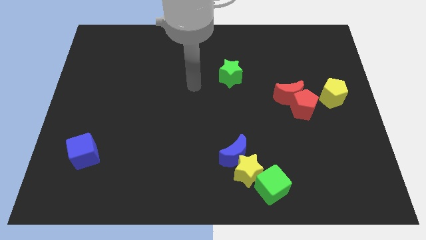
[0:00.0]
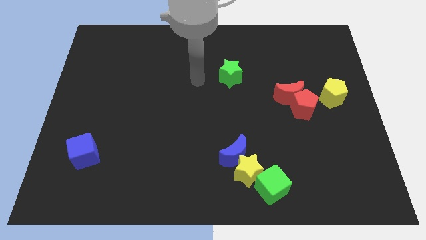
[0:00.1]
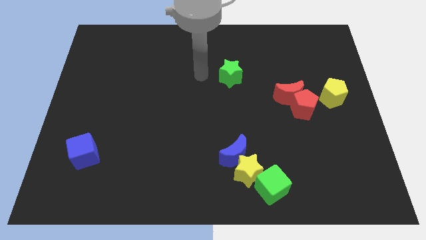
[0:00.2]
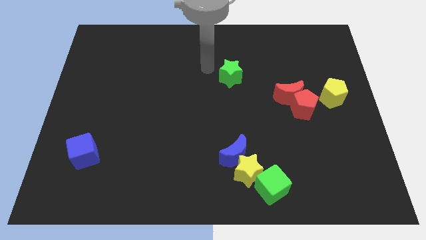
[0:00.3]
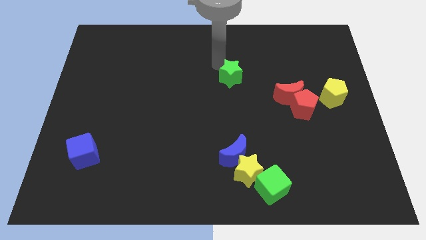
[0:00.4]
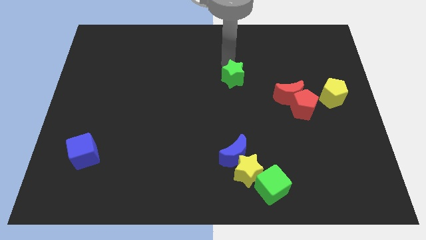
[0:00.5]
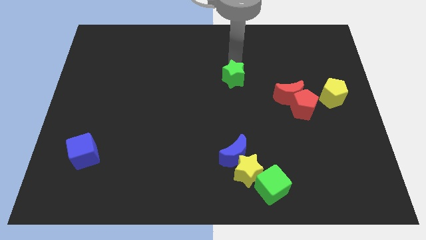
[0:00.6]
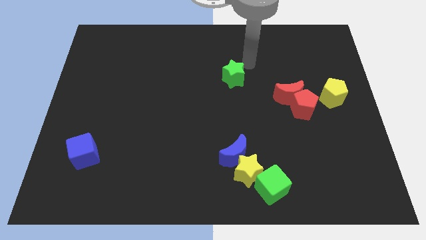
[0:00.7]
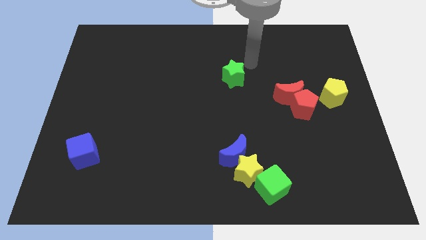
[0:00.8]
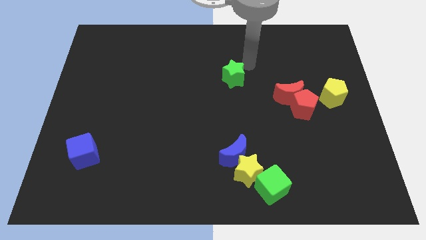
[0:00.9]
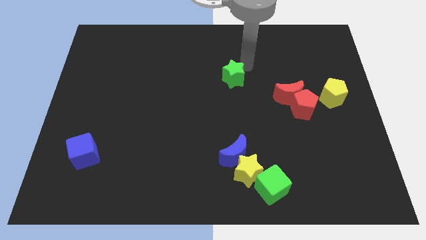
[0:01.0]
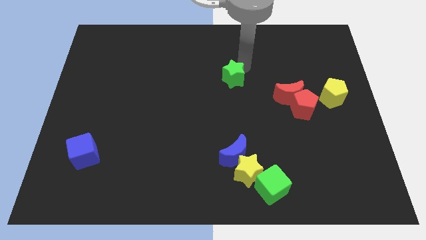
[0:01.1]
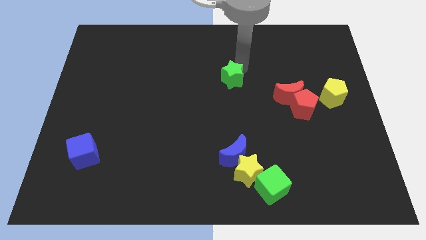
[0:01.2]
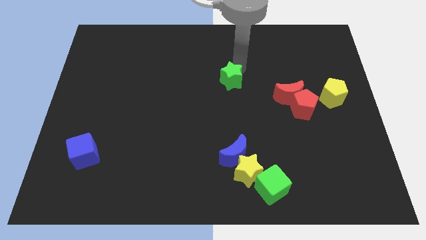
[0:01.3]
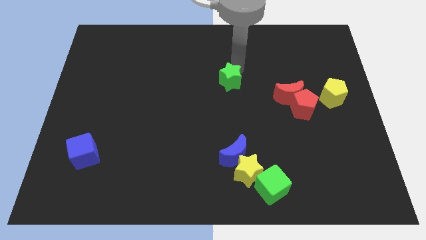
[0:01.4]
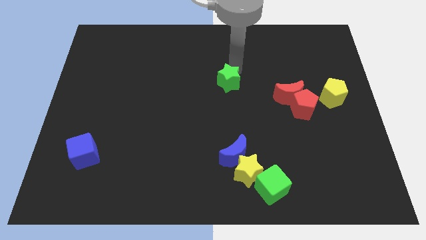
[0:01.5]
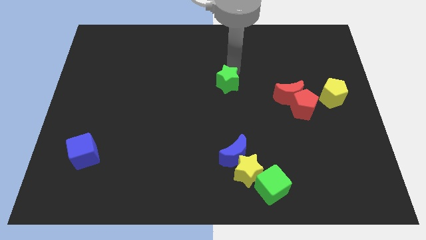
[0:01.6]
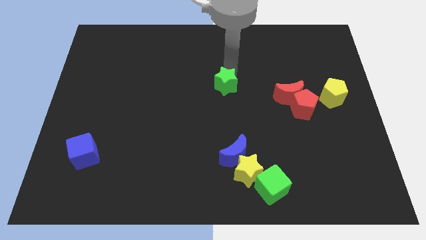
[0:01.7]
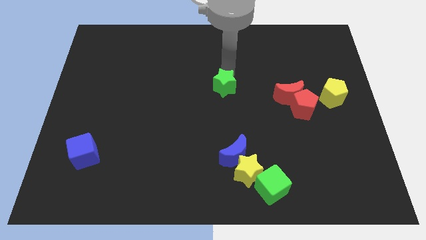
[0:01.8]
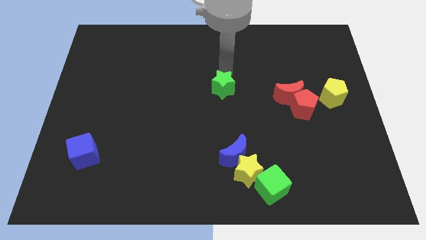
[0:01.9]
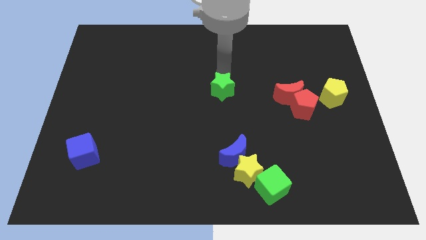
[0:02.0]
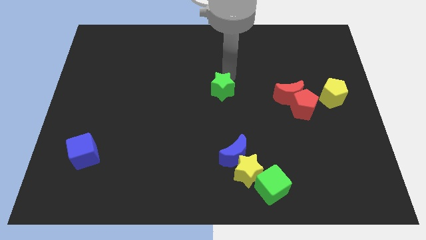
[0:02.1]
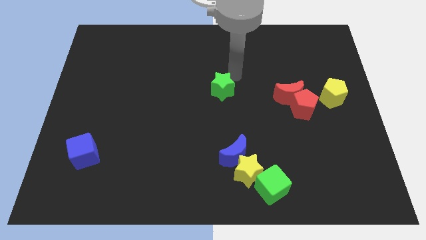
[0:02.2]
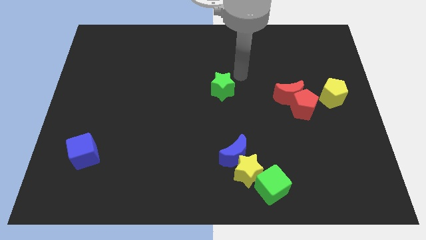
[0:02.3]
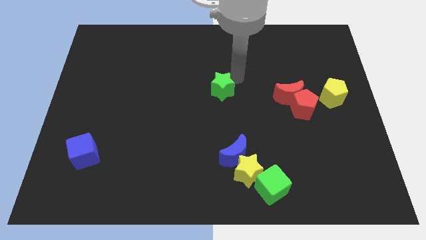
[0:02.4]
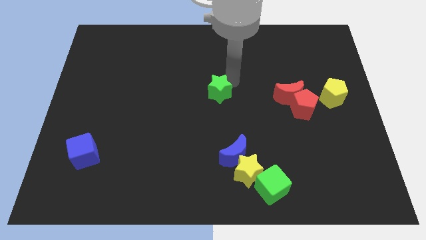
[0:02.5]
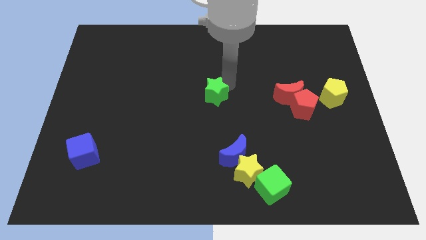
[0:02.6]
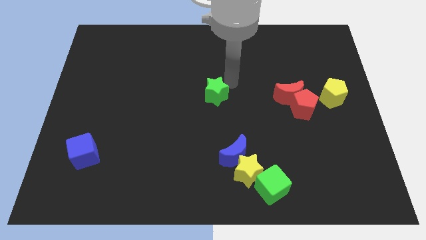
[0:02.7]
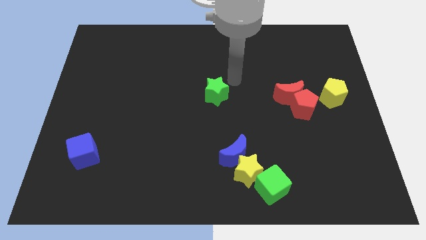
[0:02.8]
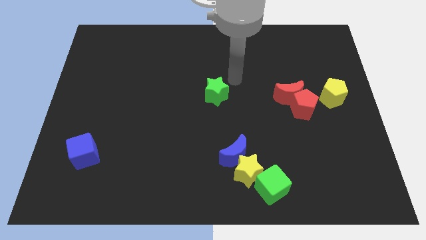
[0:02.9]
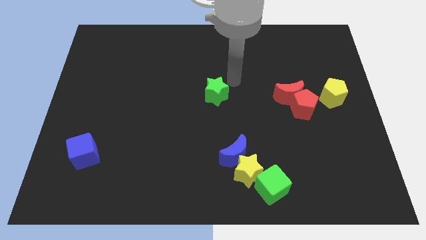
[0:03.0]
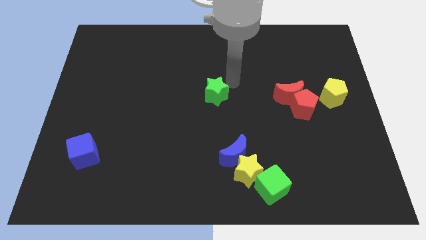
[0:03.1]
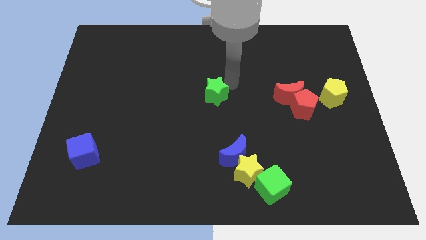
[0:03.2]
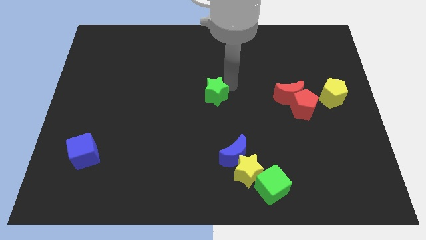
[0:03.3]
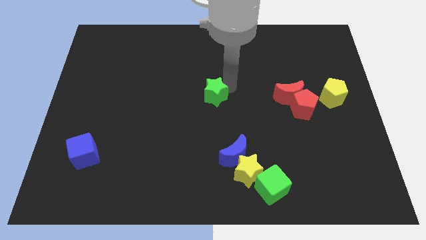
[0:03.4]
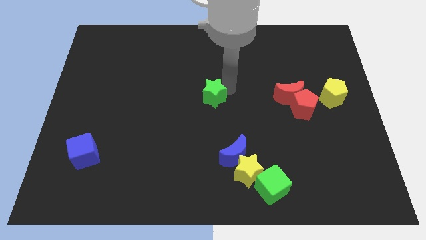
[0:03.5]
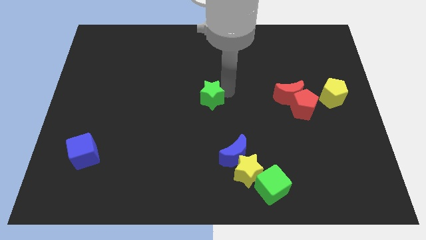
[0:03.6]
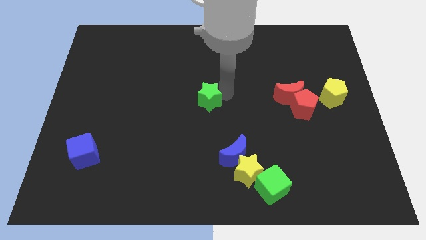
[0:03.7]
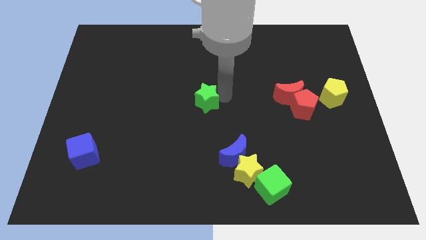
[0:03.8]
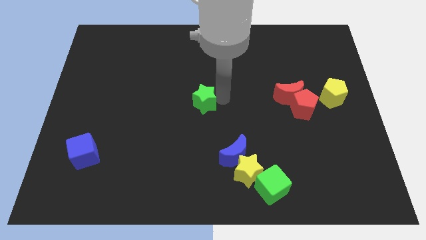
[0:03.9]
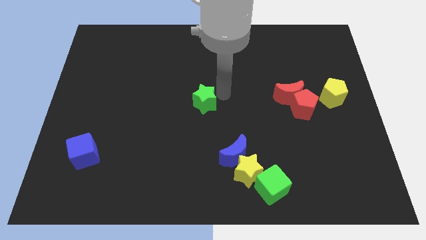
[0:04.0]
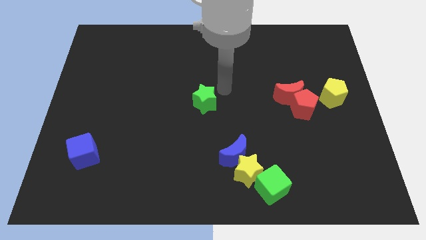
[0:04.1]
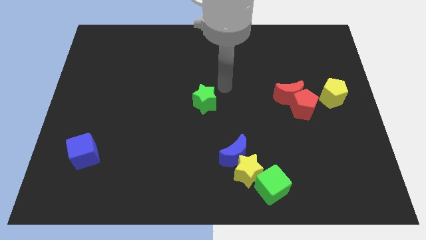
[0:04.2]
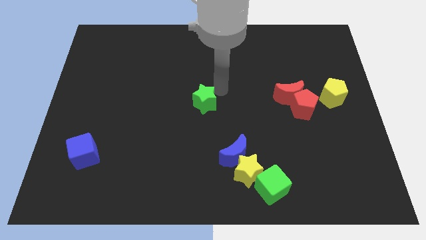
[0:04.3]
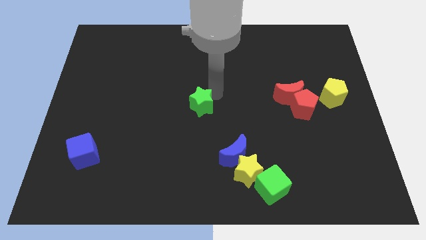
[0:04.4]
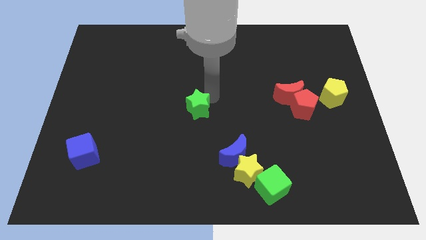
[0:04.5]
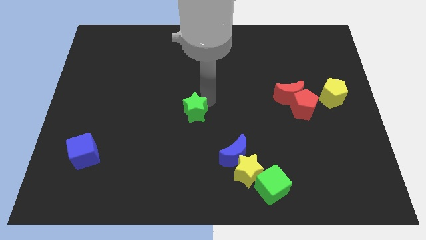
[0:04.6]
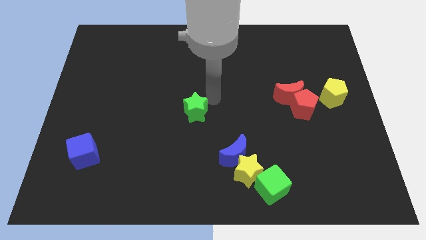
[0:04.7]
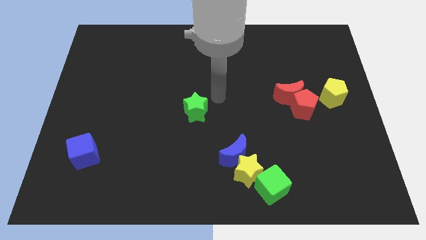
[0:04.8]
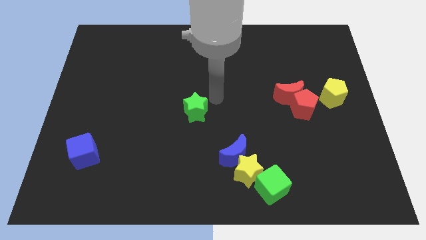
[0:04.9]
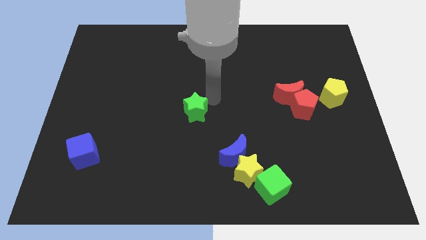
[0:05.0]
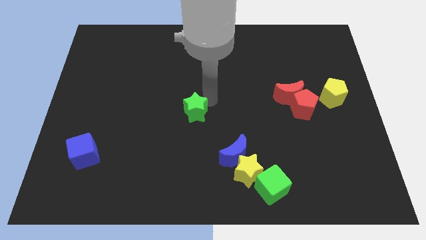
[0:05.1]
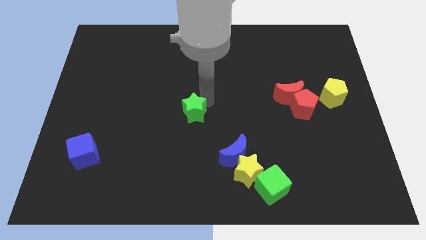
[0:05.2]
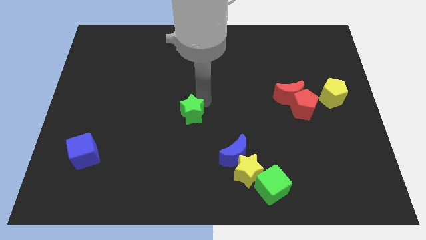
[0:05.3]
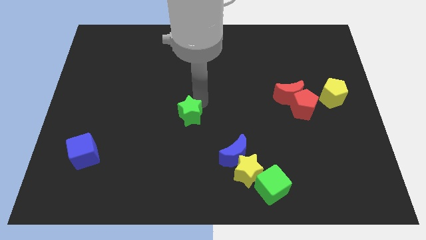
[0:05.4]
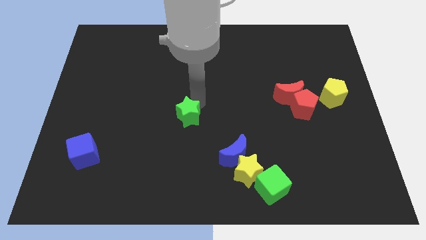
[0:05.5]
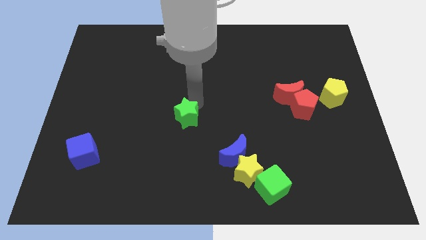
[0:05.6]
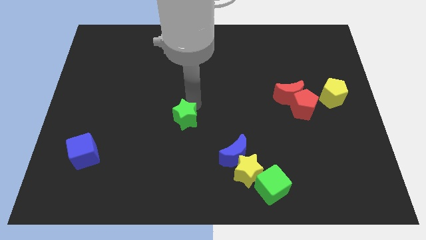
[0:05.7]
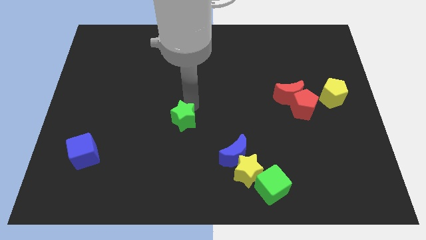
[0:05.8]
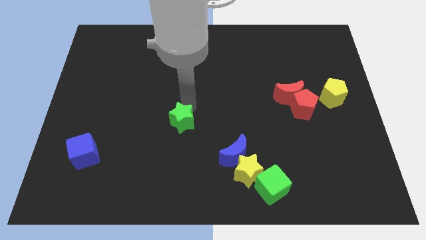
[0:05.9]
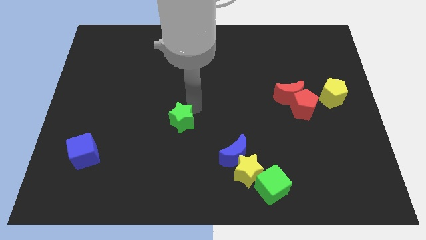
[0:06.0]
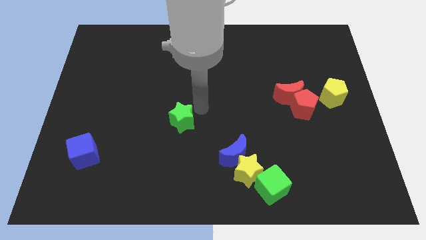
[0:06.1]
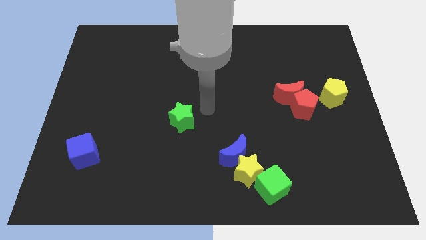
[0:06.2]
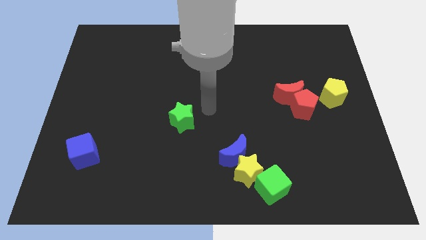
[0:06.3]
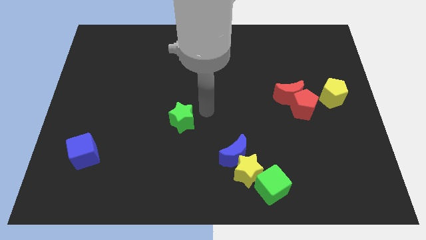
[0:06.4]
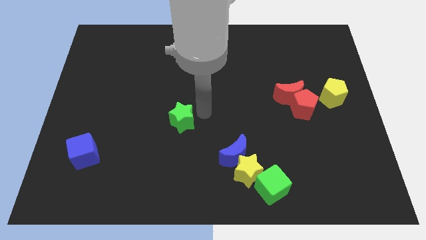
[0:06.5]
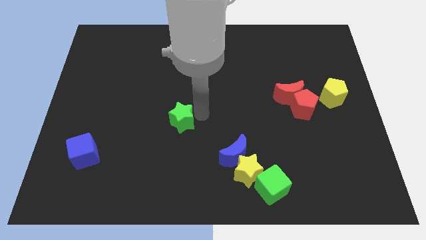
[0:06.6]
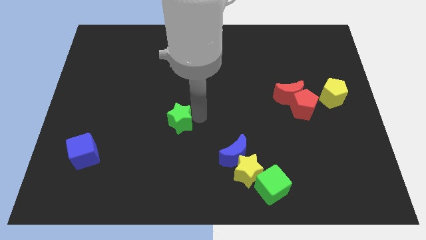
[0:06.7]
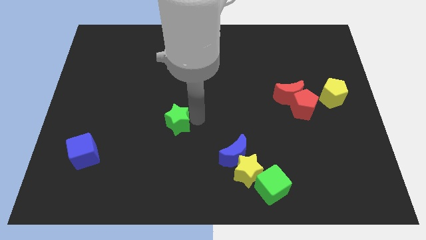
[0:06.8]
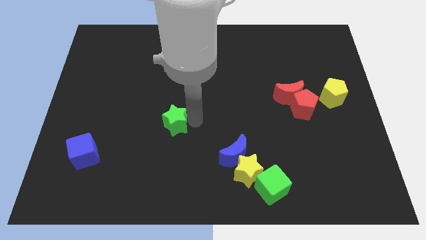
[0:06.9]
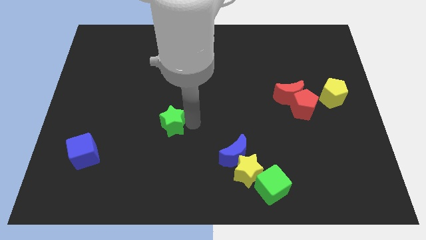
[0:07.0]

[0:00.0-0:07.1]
push the green star diagonally down and left

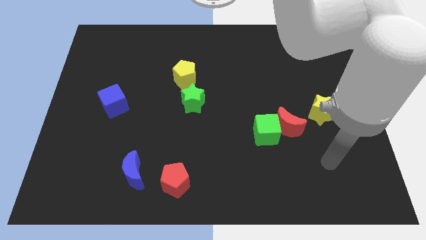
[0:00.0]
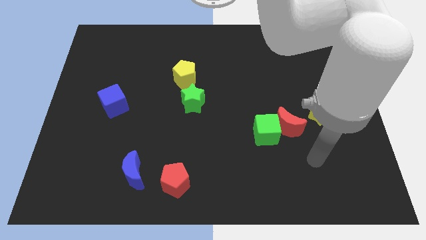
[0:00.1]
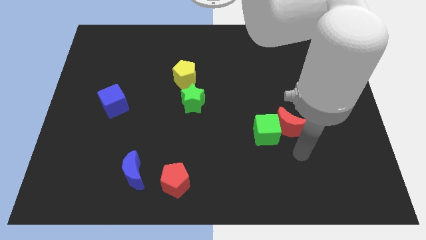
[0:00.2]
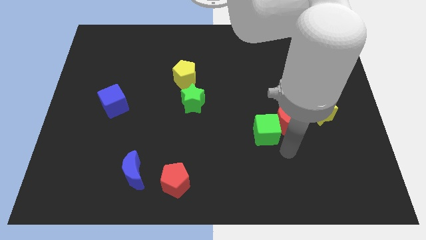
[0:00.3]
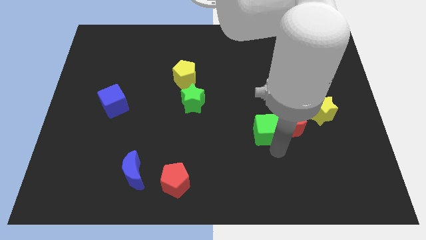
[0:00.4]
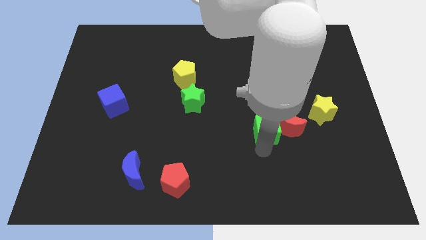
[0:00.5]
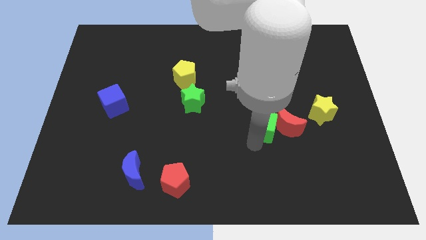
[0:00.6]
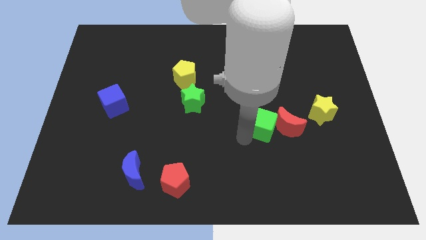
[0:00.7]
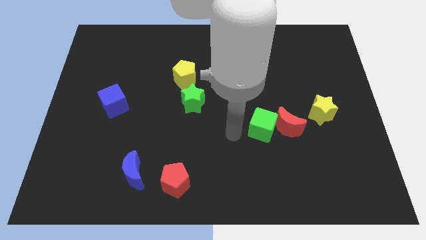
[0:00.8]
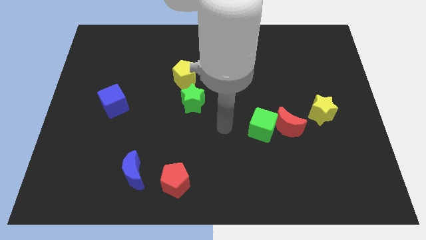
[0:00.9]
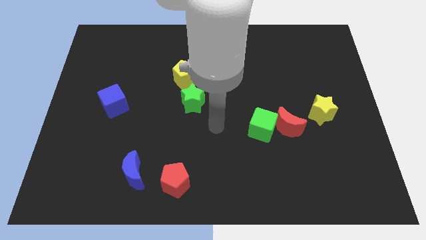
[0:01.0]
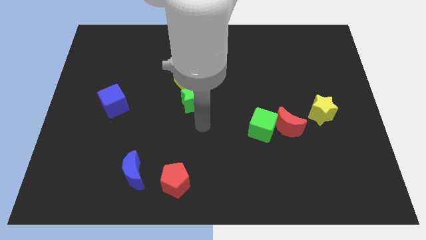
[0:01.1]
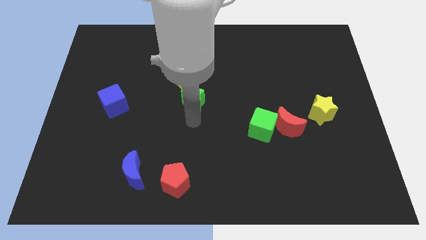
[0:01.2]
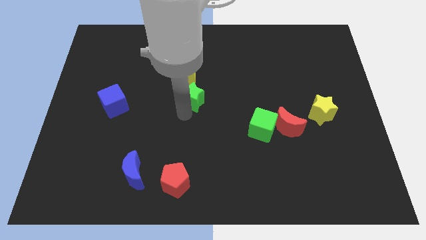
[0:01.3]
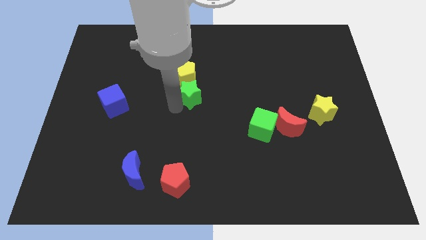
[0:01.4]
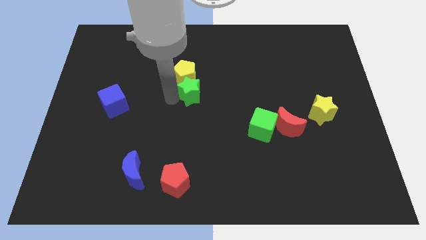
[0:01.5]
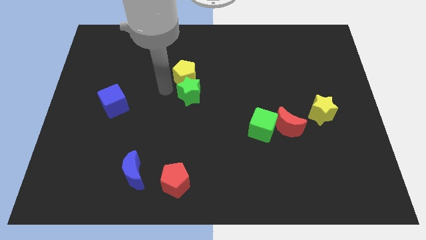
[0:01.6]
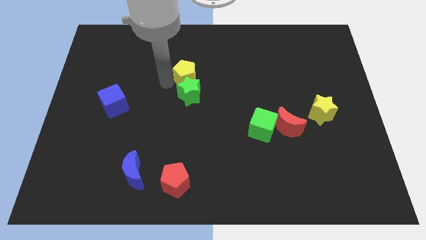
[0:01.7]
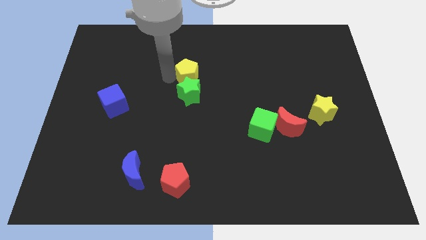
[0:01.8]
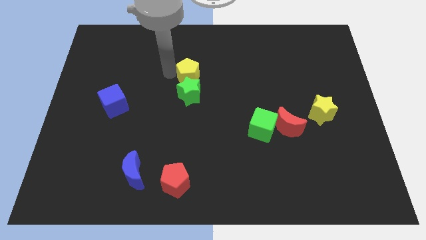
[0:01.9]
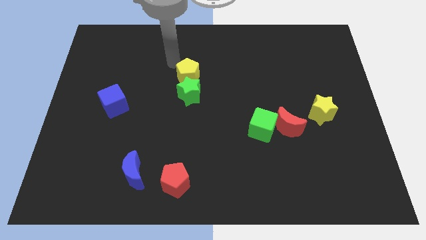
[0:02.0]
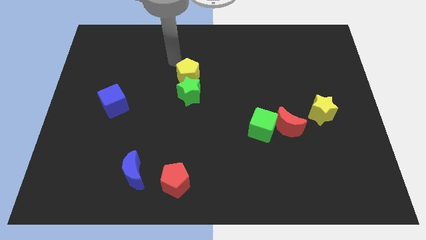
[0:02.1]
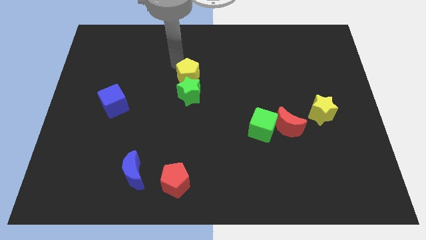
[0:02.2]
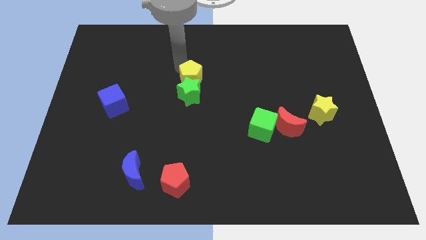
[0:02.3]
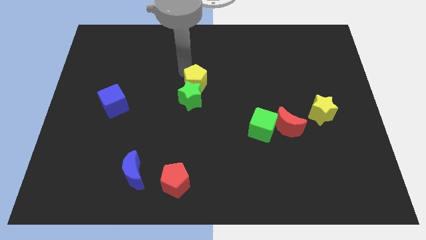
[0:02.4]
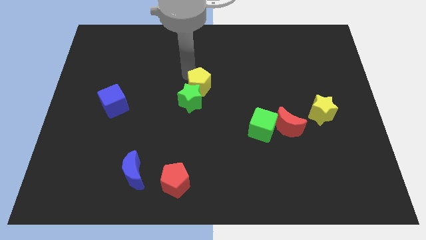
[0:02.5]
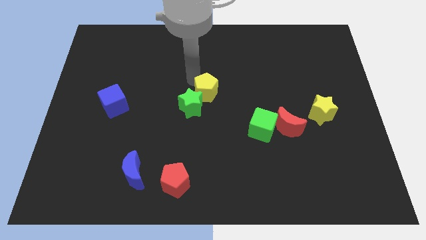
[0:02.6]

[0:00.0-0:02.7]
slightly slide the yellow pentagon down and right diagonally
